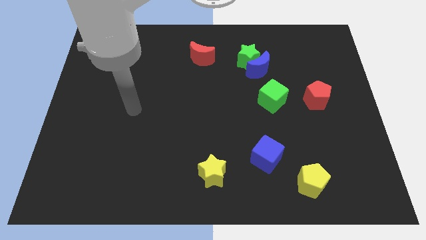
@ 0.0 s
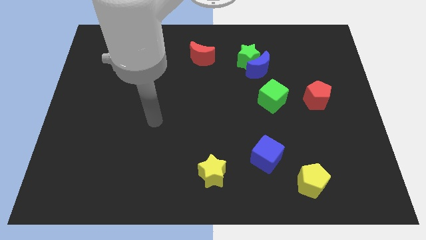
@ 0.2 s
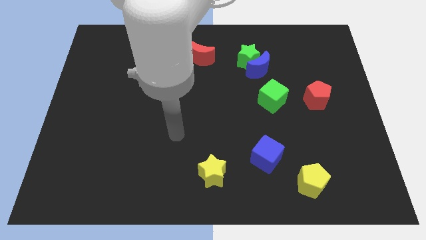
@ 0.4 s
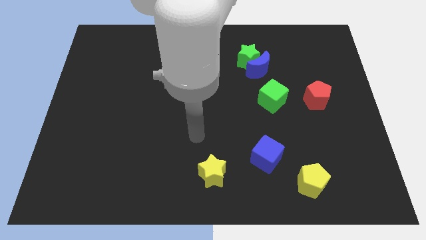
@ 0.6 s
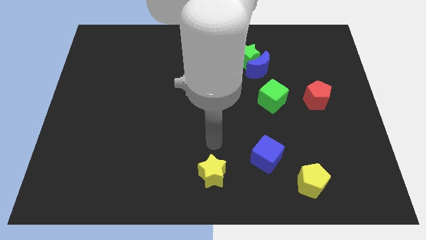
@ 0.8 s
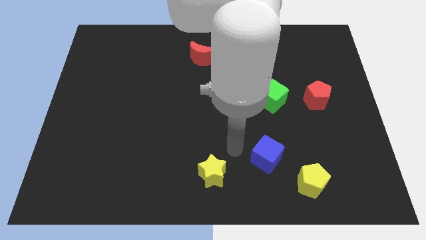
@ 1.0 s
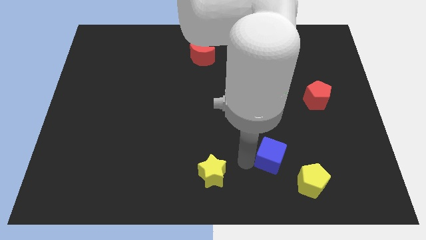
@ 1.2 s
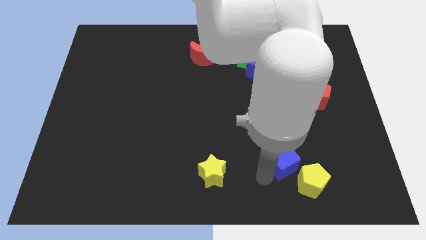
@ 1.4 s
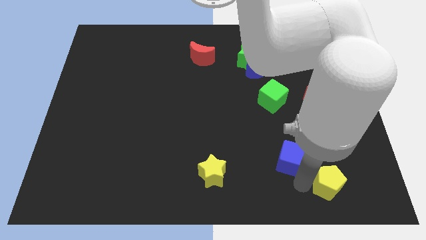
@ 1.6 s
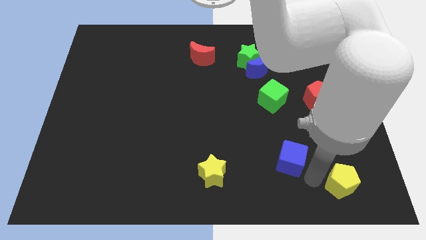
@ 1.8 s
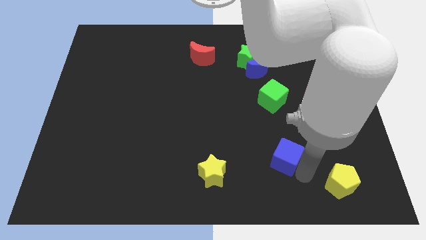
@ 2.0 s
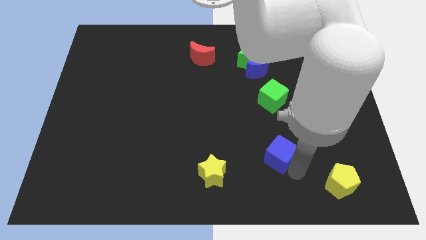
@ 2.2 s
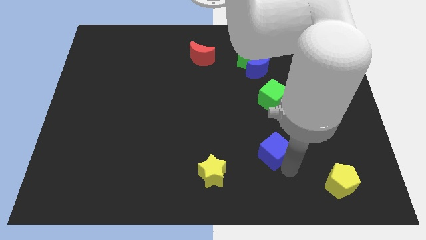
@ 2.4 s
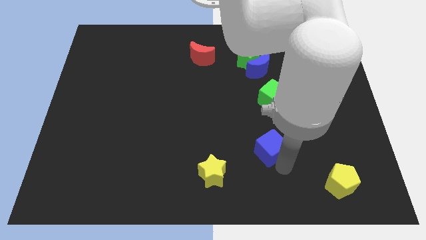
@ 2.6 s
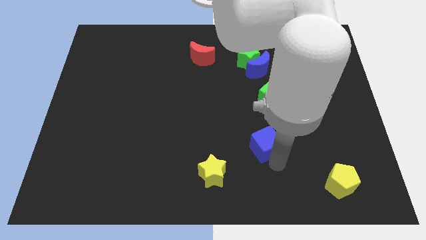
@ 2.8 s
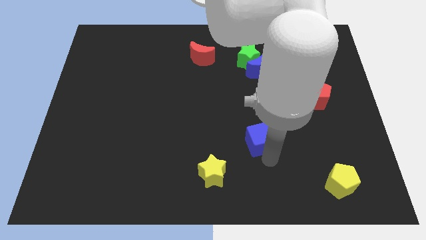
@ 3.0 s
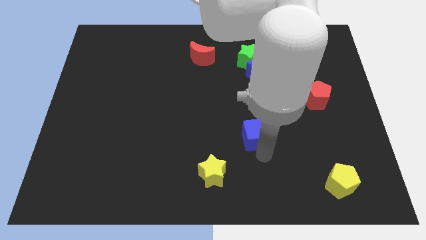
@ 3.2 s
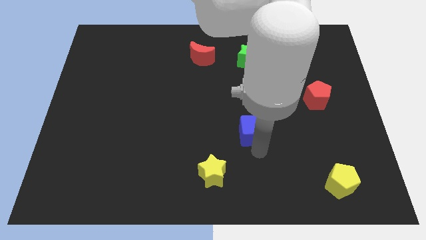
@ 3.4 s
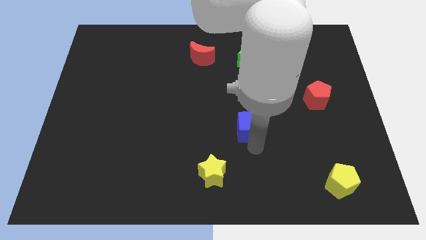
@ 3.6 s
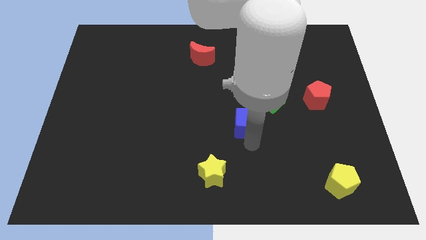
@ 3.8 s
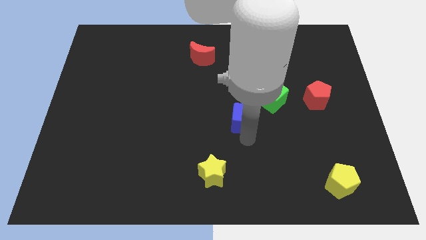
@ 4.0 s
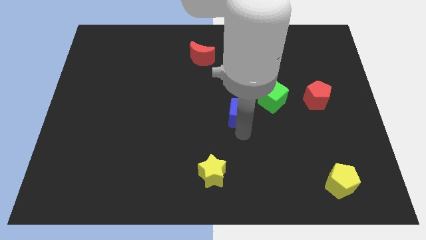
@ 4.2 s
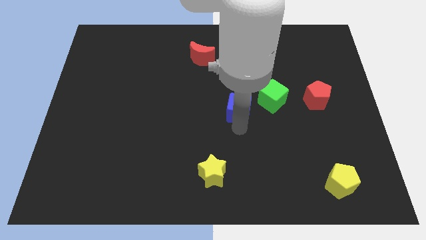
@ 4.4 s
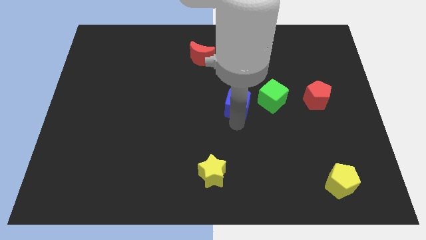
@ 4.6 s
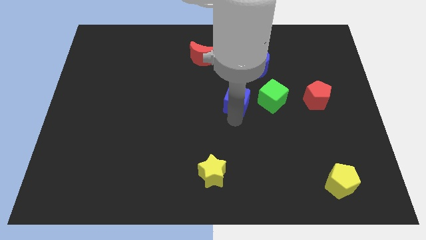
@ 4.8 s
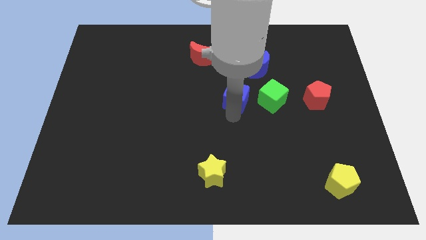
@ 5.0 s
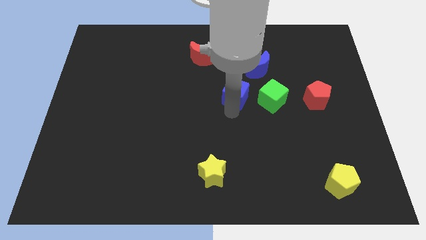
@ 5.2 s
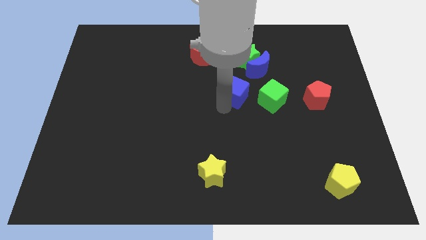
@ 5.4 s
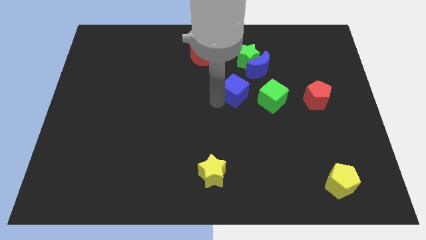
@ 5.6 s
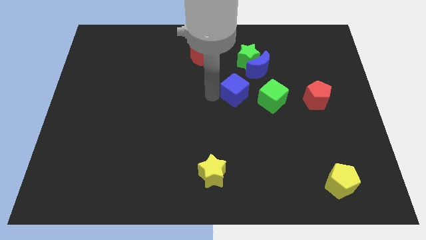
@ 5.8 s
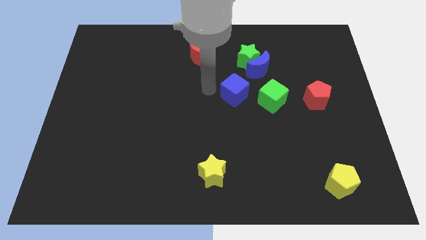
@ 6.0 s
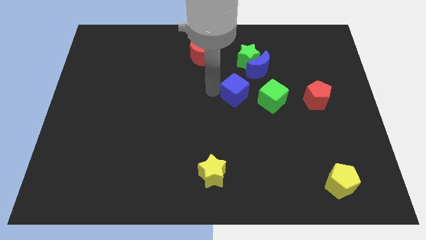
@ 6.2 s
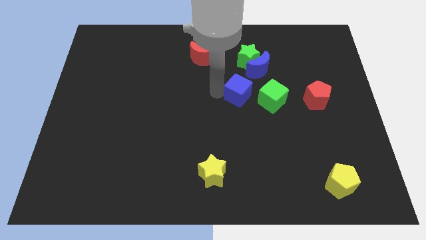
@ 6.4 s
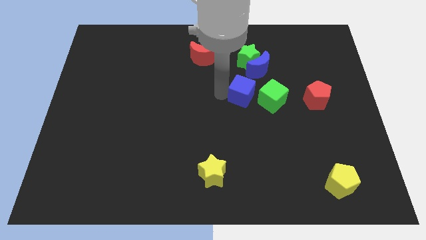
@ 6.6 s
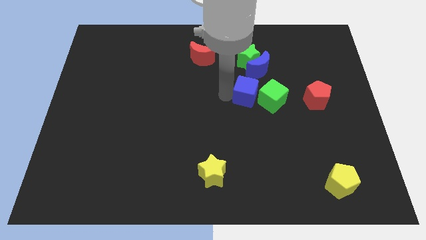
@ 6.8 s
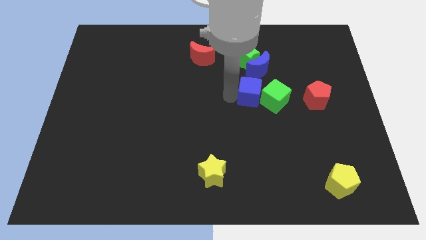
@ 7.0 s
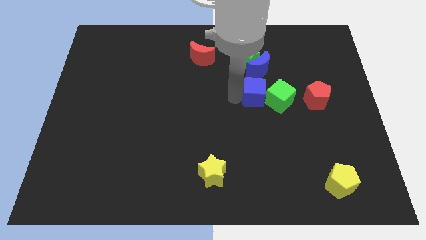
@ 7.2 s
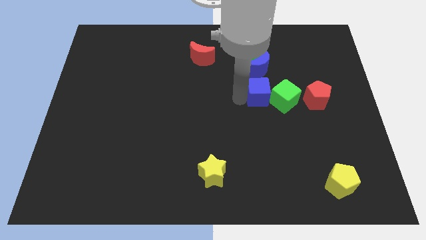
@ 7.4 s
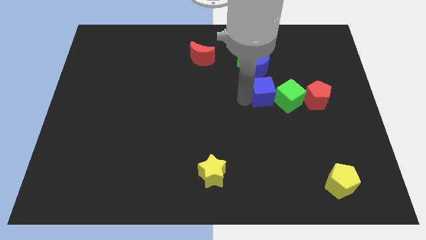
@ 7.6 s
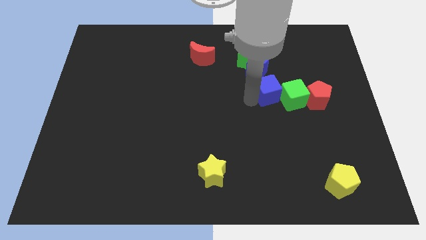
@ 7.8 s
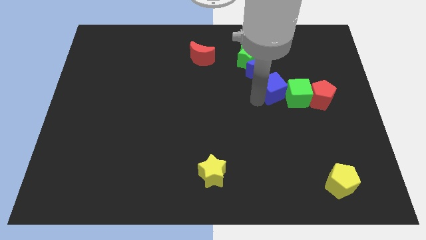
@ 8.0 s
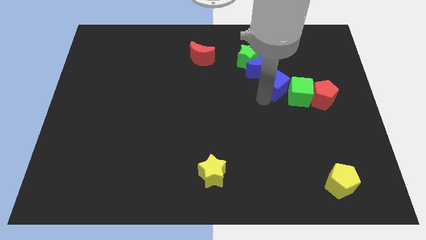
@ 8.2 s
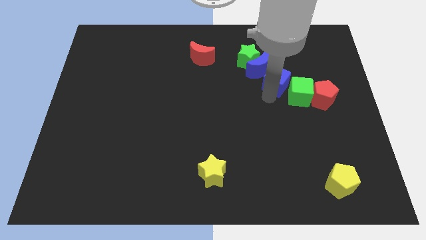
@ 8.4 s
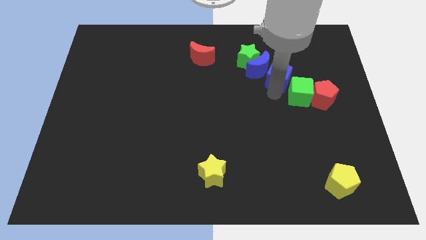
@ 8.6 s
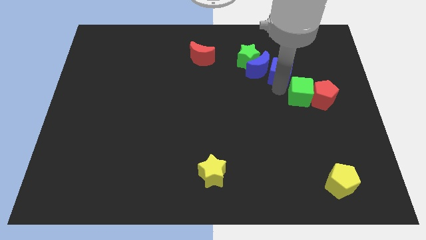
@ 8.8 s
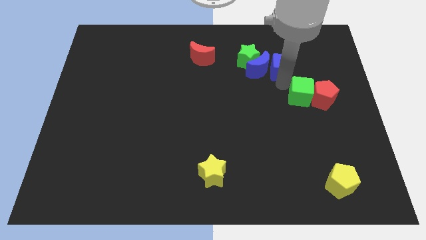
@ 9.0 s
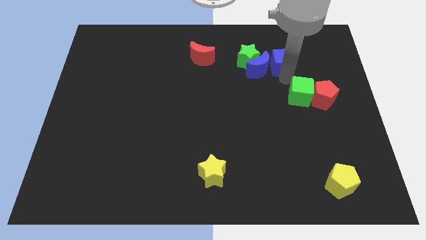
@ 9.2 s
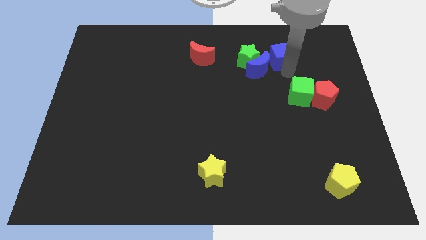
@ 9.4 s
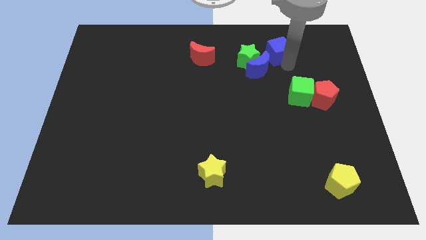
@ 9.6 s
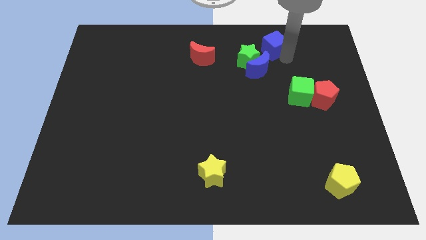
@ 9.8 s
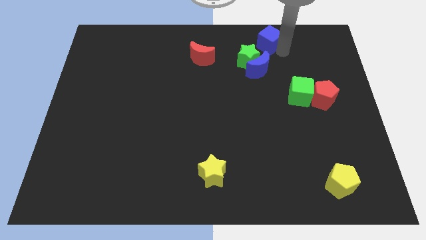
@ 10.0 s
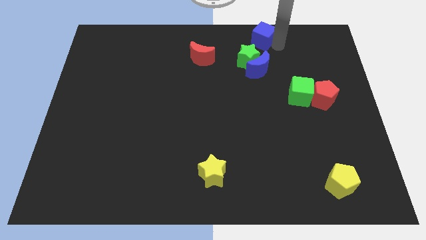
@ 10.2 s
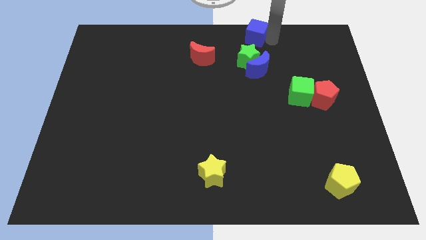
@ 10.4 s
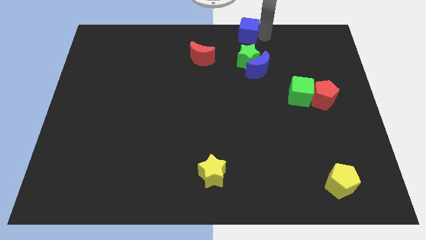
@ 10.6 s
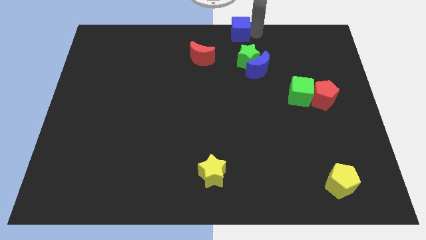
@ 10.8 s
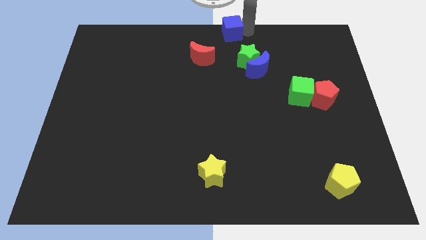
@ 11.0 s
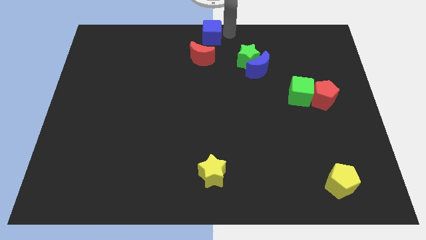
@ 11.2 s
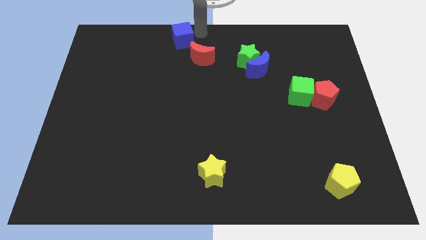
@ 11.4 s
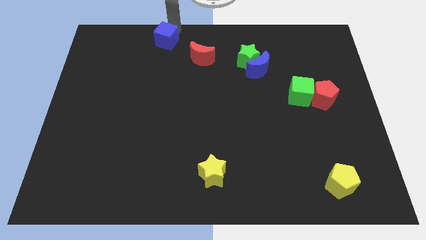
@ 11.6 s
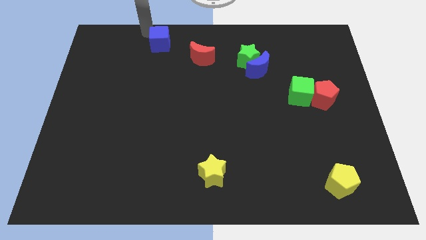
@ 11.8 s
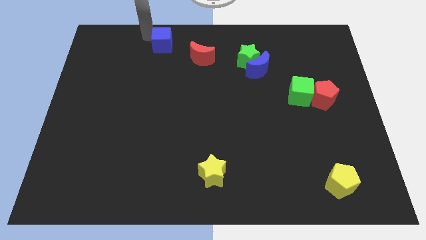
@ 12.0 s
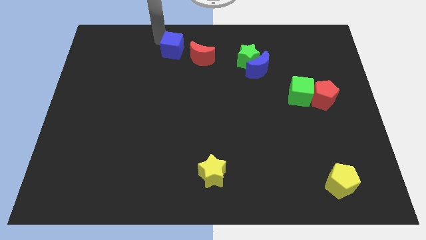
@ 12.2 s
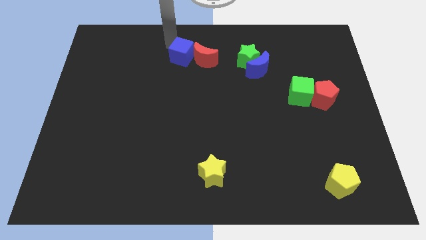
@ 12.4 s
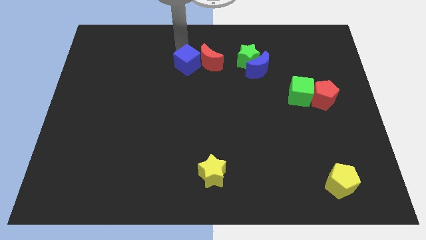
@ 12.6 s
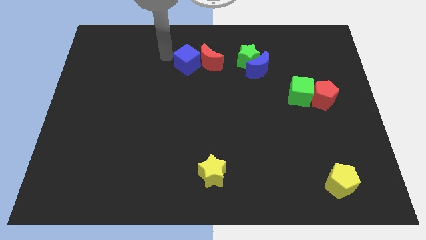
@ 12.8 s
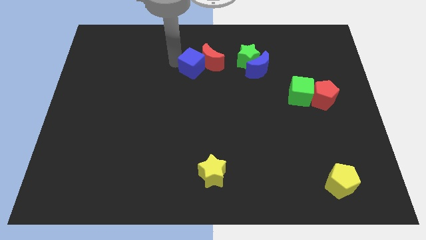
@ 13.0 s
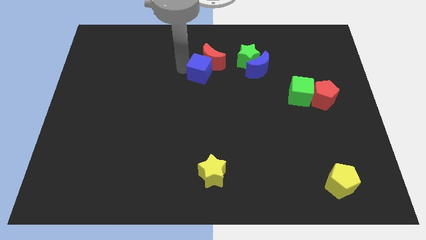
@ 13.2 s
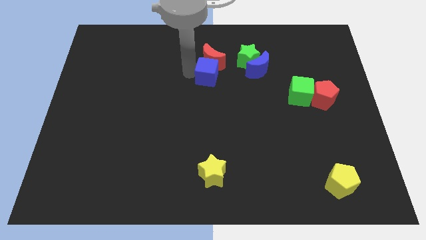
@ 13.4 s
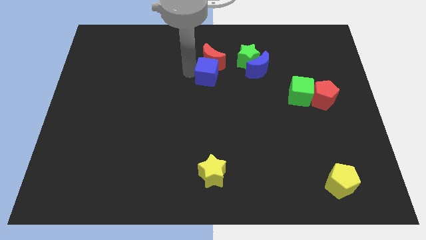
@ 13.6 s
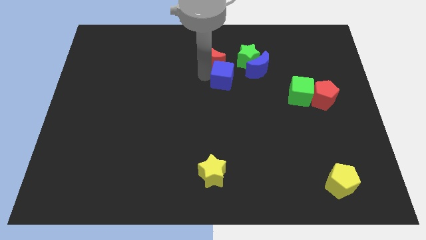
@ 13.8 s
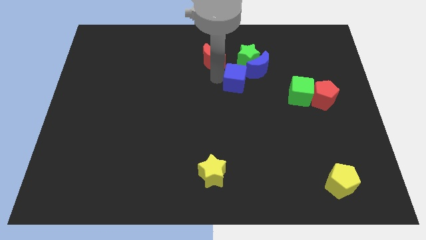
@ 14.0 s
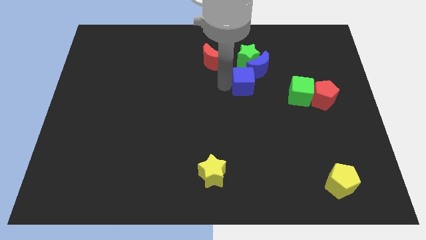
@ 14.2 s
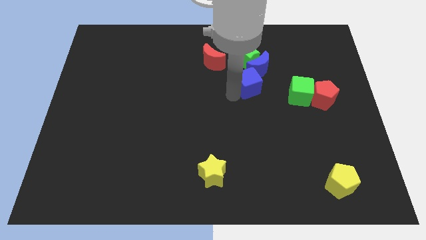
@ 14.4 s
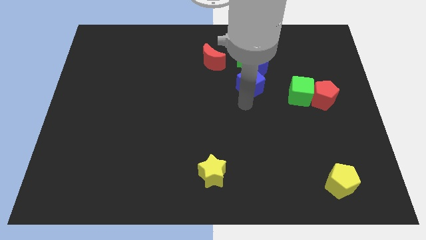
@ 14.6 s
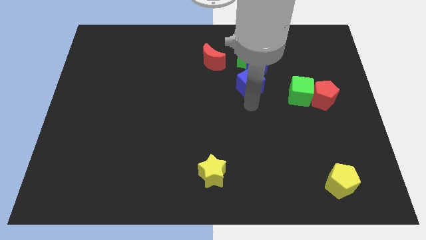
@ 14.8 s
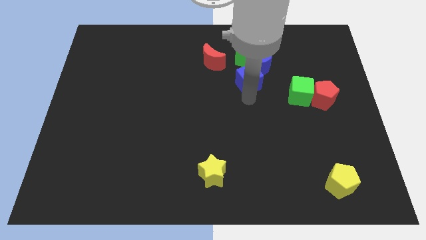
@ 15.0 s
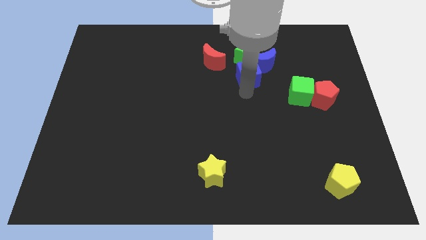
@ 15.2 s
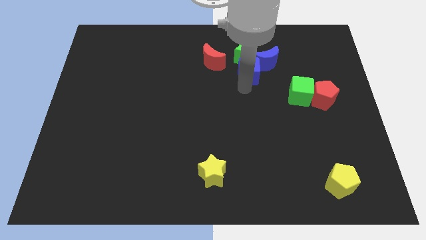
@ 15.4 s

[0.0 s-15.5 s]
put the blue cube next to the green star
